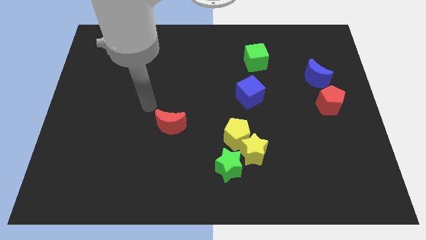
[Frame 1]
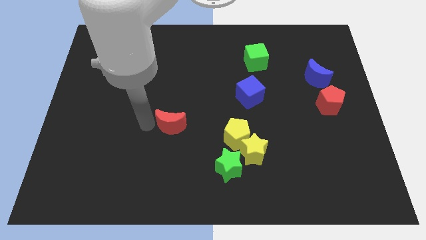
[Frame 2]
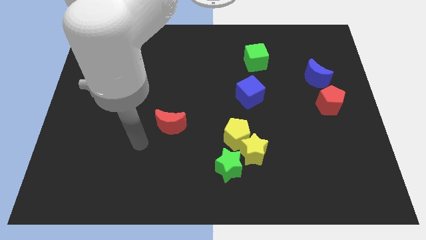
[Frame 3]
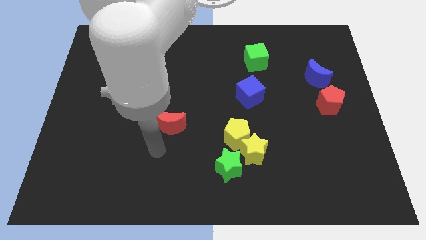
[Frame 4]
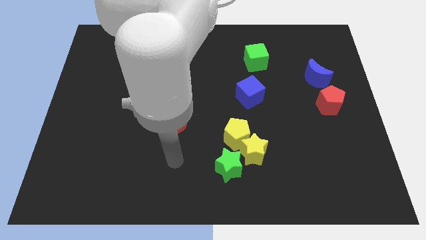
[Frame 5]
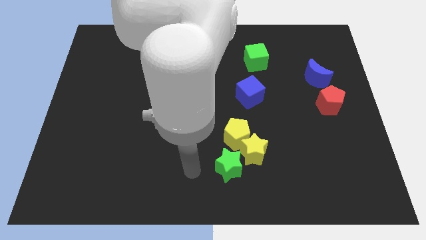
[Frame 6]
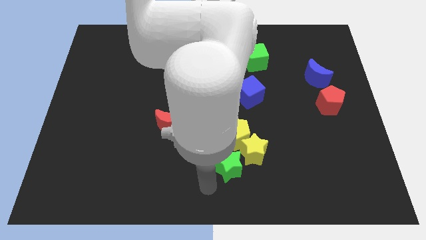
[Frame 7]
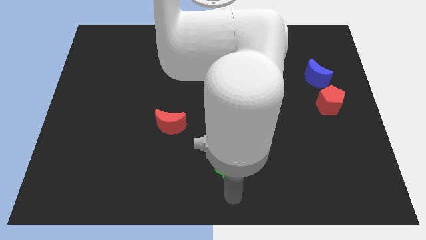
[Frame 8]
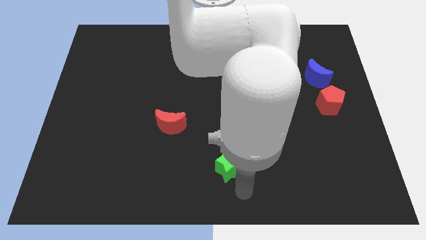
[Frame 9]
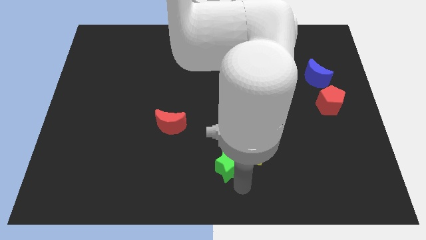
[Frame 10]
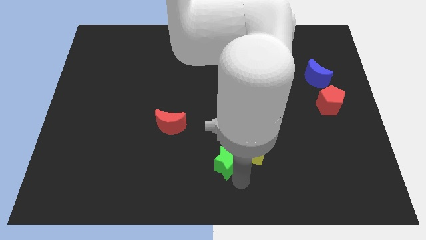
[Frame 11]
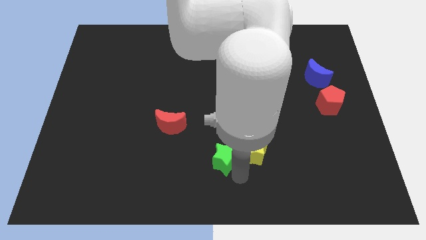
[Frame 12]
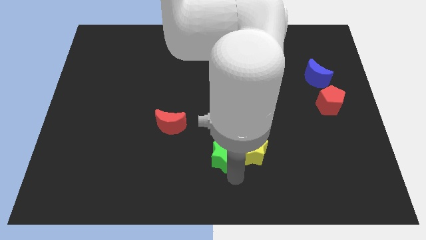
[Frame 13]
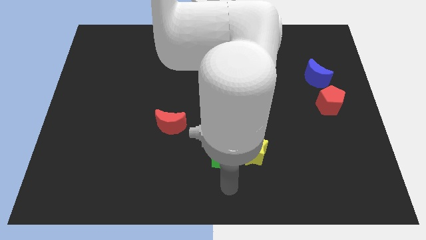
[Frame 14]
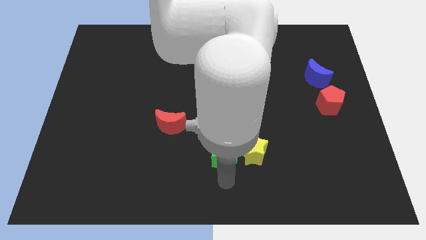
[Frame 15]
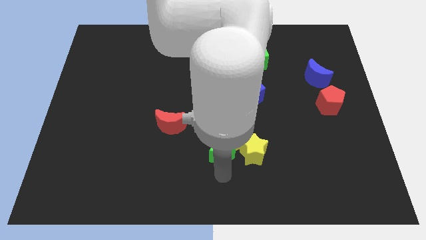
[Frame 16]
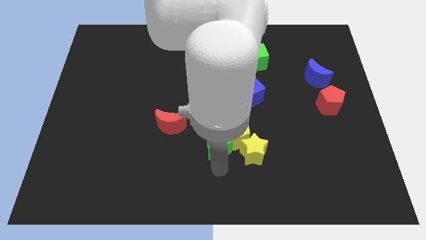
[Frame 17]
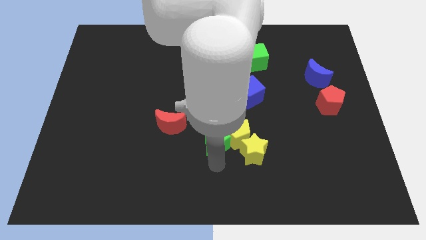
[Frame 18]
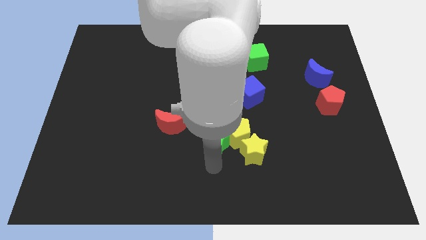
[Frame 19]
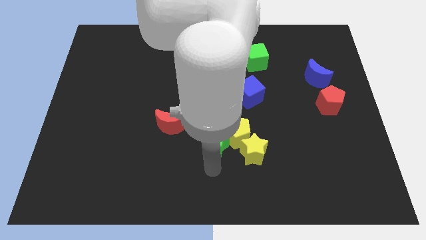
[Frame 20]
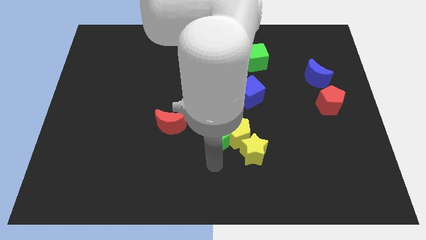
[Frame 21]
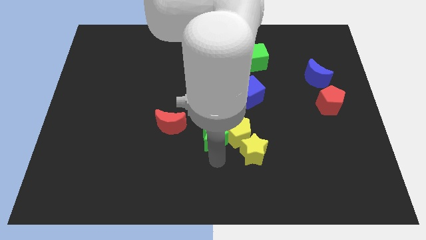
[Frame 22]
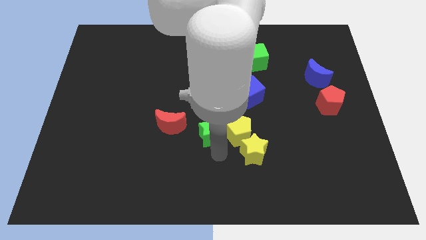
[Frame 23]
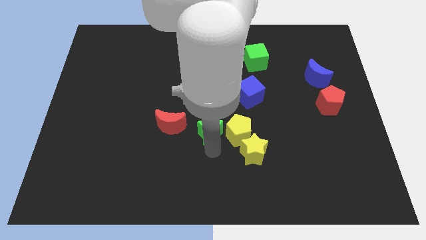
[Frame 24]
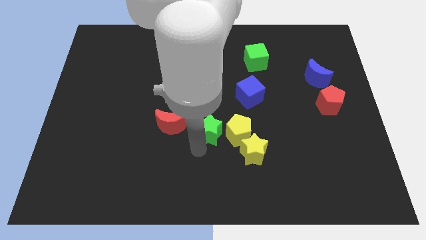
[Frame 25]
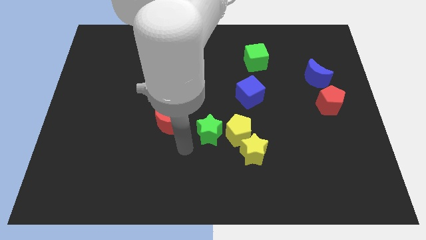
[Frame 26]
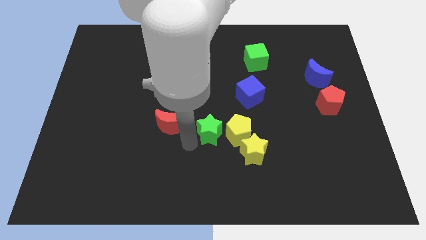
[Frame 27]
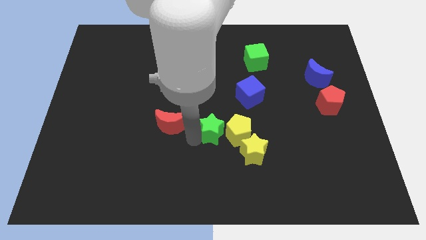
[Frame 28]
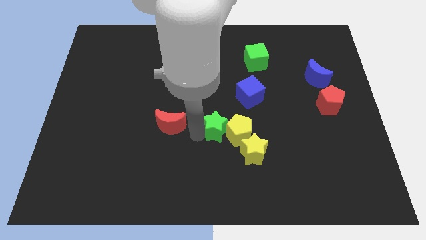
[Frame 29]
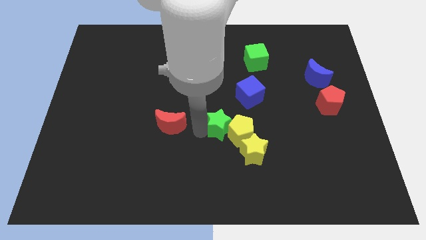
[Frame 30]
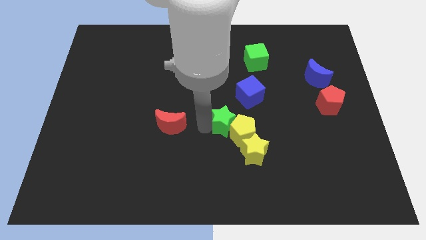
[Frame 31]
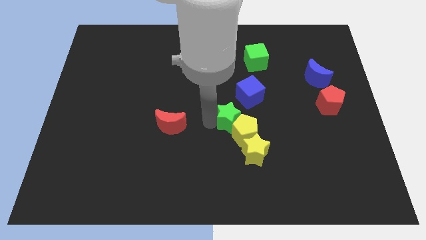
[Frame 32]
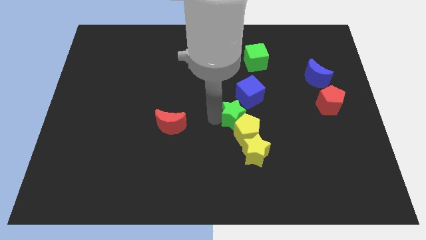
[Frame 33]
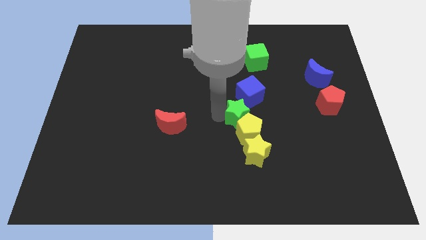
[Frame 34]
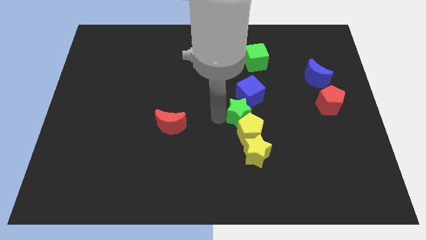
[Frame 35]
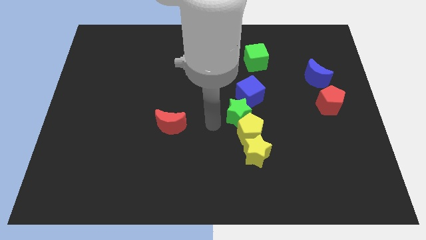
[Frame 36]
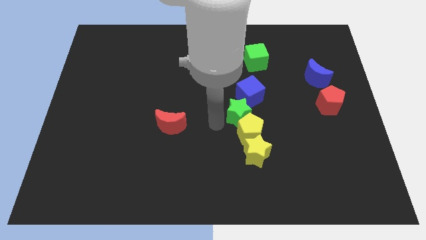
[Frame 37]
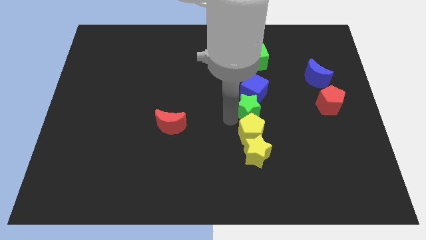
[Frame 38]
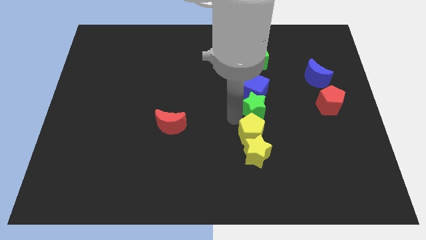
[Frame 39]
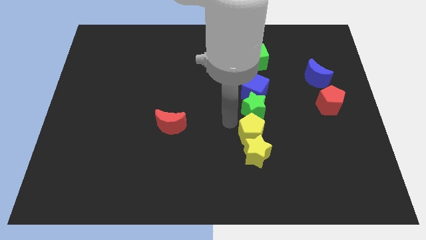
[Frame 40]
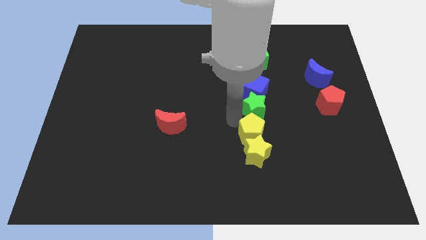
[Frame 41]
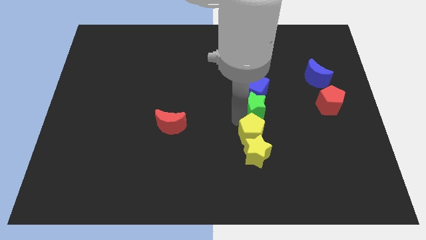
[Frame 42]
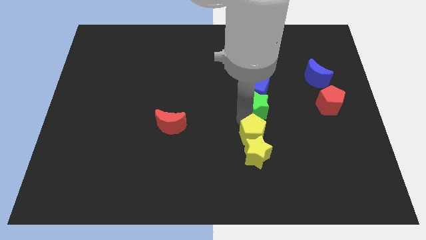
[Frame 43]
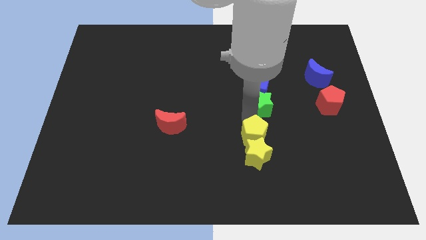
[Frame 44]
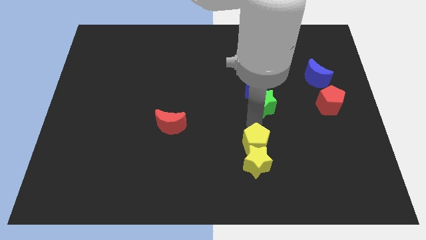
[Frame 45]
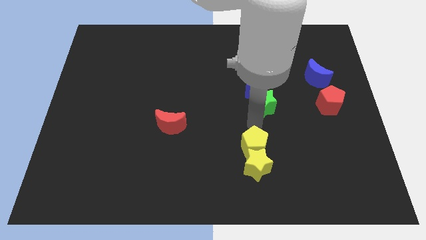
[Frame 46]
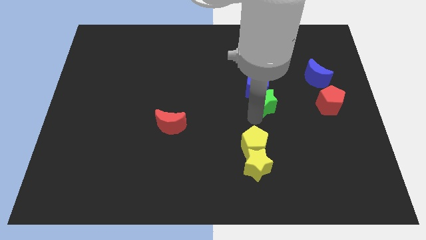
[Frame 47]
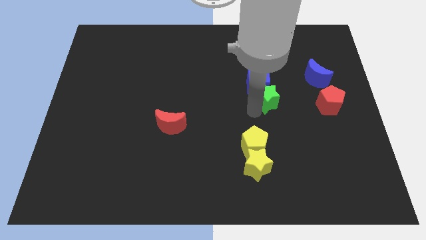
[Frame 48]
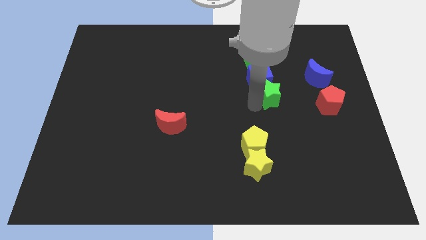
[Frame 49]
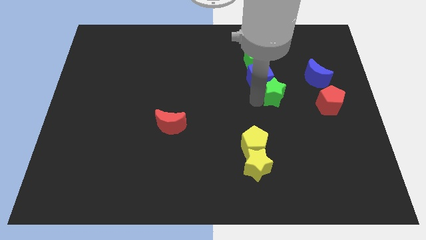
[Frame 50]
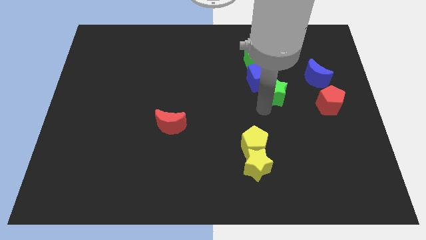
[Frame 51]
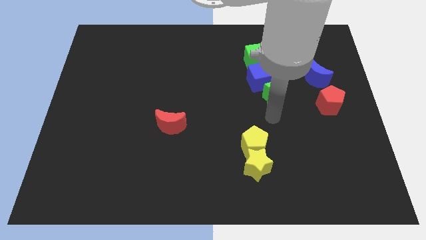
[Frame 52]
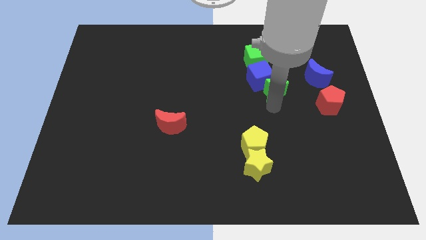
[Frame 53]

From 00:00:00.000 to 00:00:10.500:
slide the green star just left of the blue moon

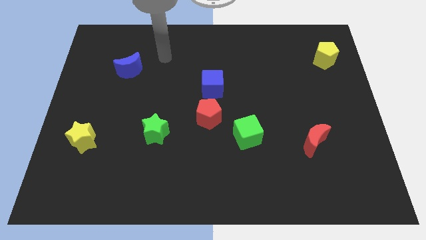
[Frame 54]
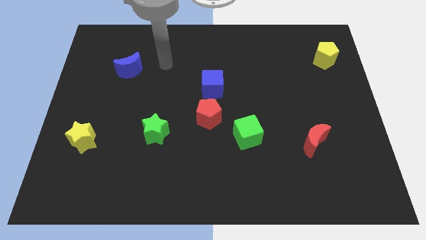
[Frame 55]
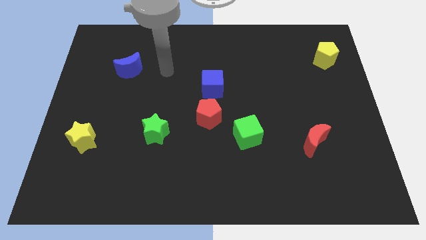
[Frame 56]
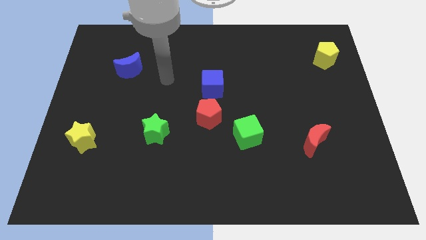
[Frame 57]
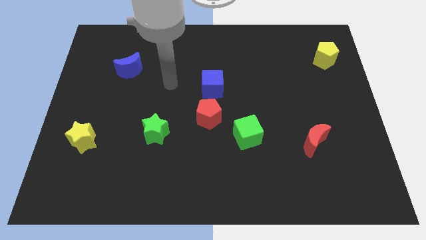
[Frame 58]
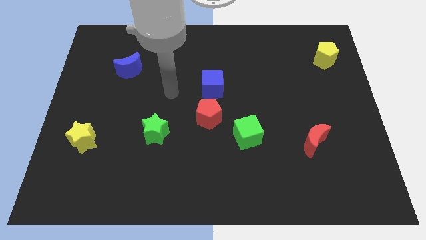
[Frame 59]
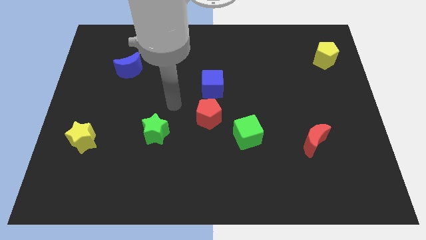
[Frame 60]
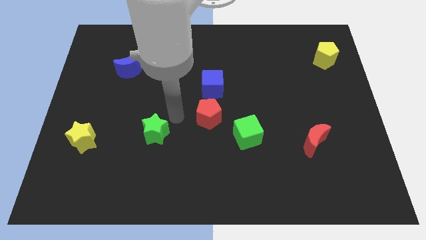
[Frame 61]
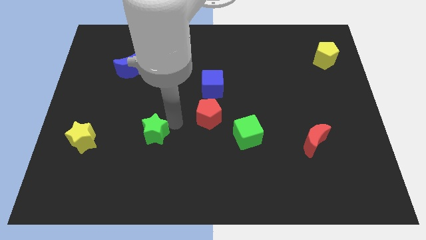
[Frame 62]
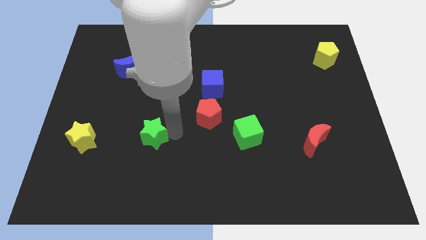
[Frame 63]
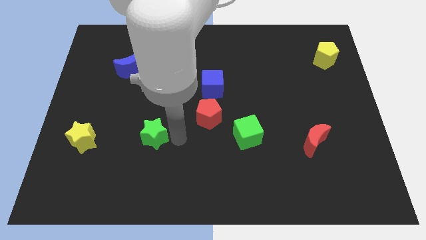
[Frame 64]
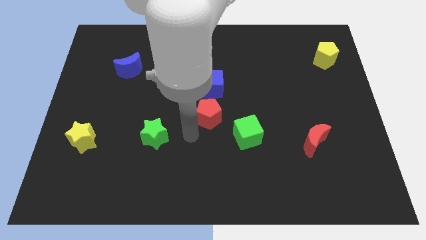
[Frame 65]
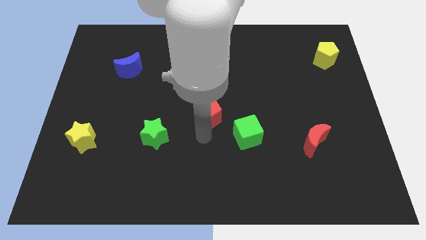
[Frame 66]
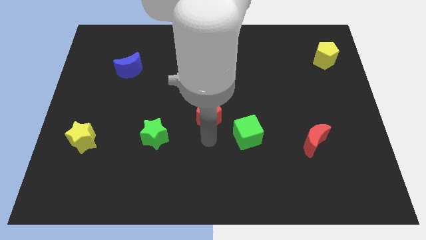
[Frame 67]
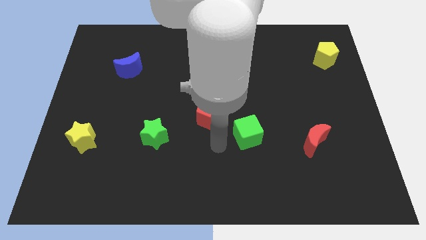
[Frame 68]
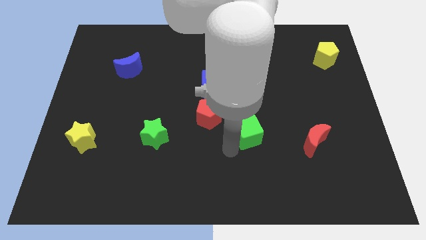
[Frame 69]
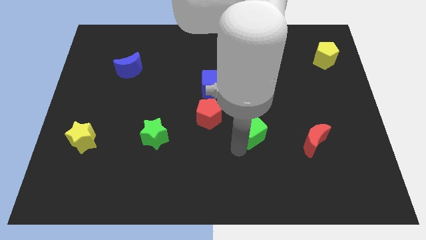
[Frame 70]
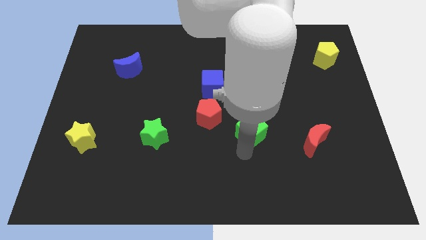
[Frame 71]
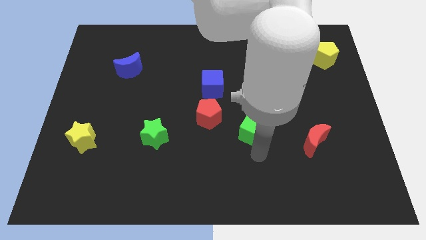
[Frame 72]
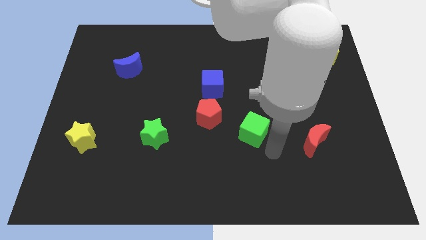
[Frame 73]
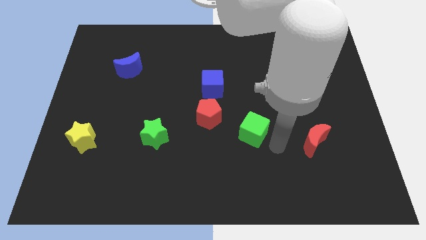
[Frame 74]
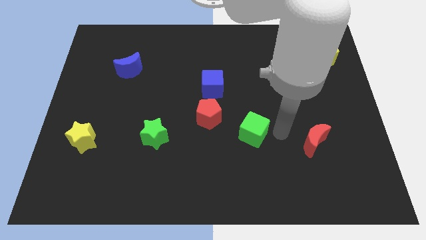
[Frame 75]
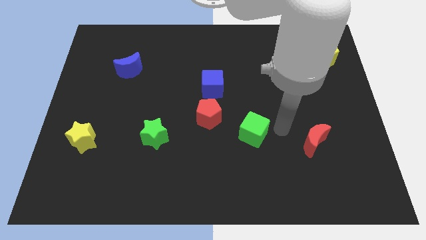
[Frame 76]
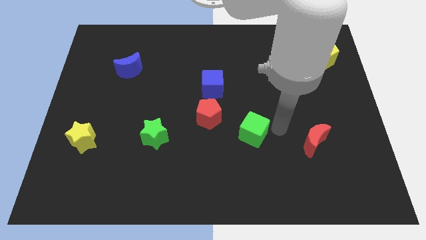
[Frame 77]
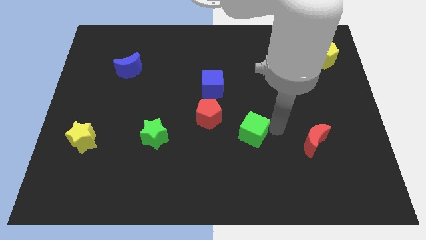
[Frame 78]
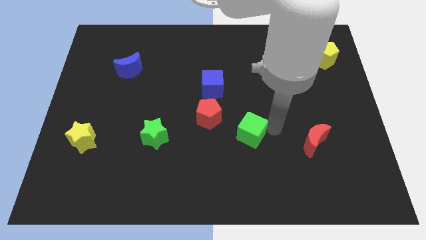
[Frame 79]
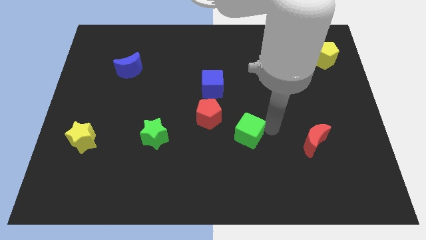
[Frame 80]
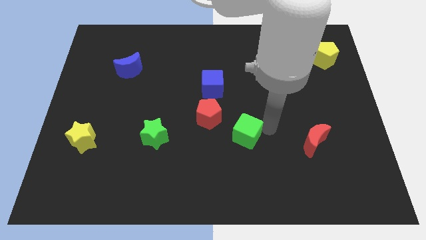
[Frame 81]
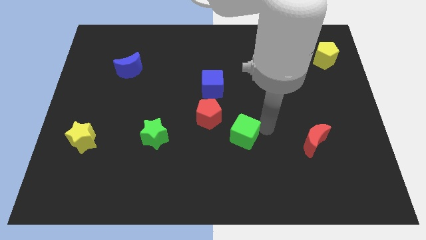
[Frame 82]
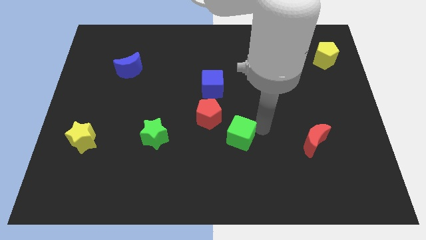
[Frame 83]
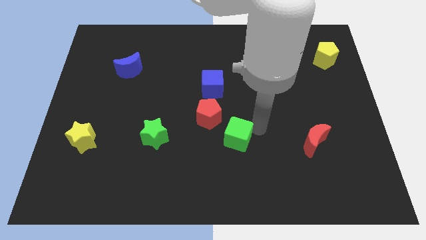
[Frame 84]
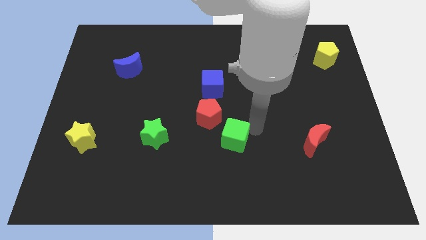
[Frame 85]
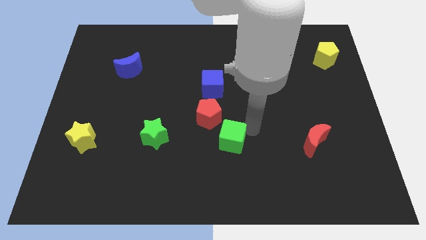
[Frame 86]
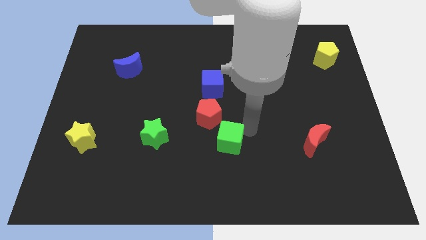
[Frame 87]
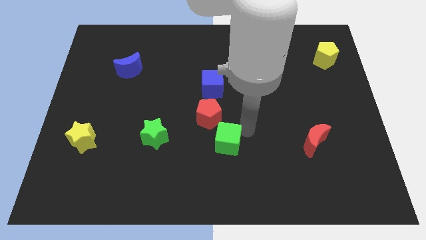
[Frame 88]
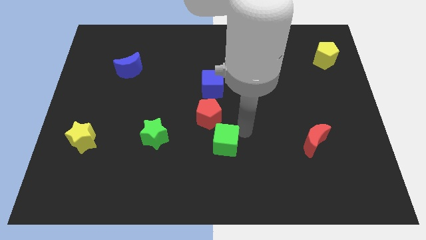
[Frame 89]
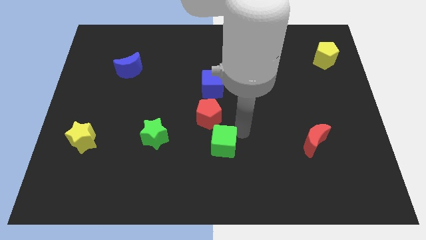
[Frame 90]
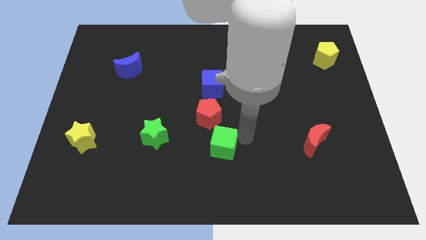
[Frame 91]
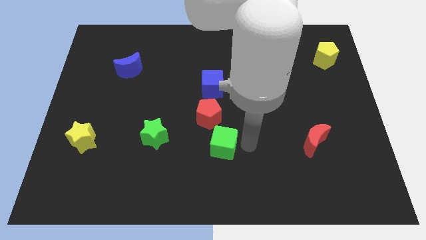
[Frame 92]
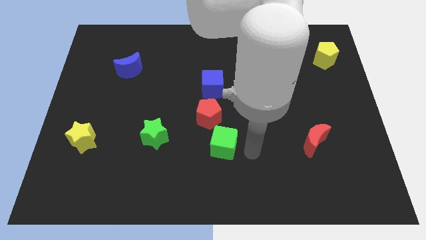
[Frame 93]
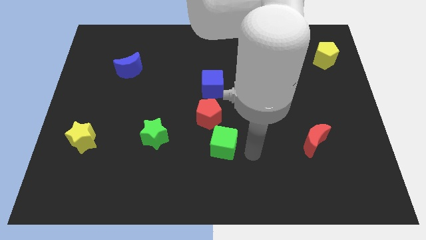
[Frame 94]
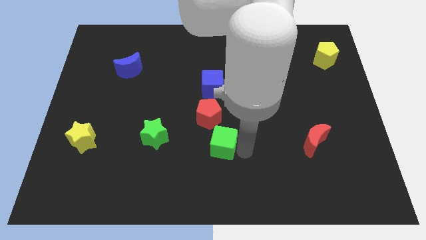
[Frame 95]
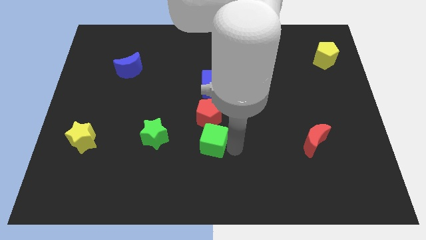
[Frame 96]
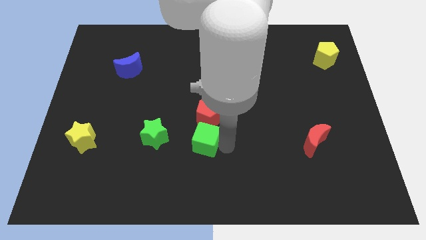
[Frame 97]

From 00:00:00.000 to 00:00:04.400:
move the green cube to the bottom left of the red pentagon
